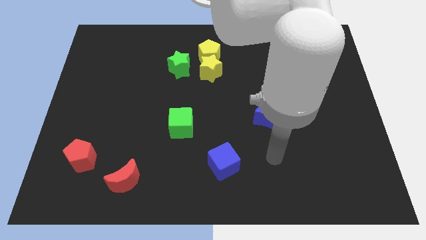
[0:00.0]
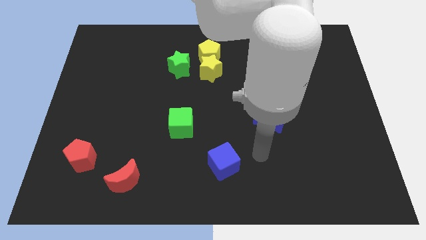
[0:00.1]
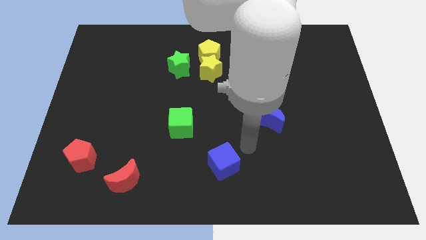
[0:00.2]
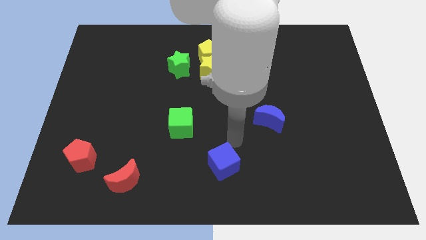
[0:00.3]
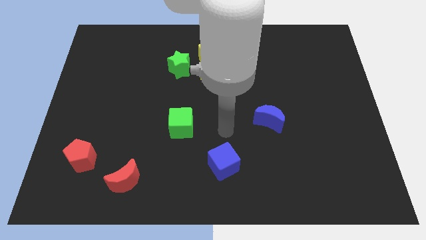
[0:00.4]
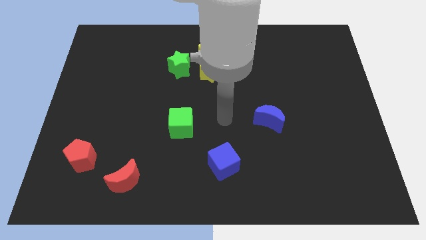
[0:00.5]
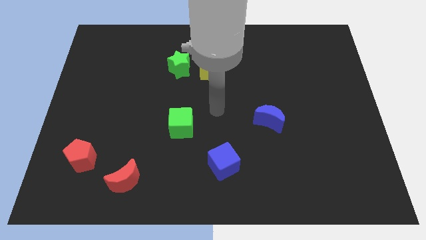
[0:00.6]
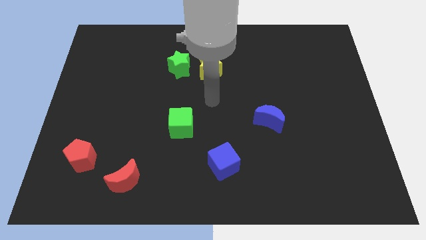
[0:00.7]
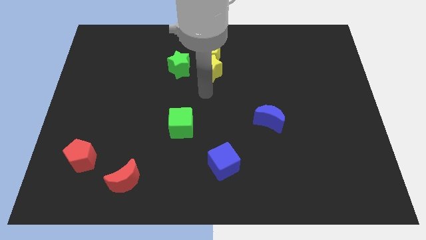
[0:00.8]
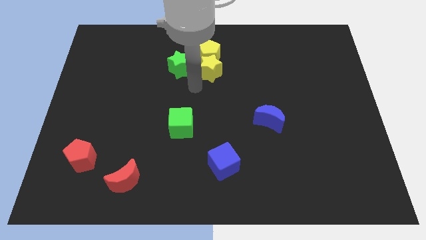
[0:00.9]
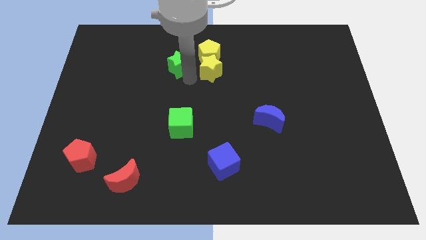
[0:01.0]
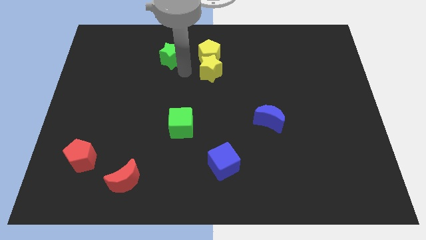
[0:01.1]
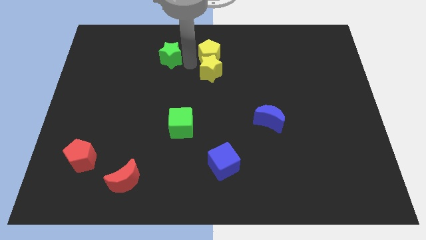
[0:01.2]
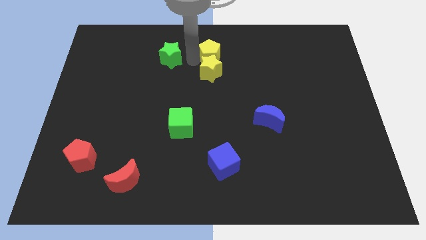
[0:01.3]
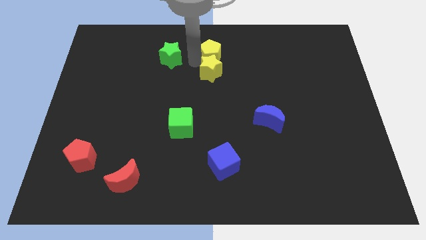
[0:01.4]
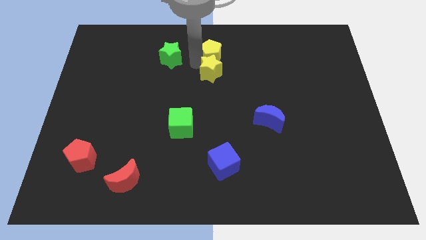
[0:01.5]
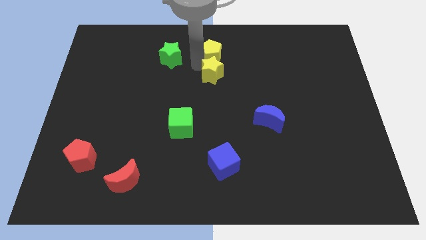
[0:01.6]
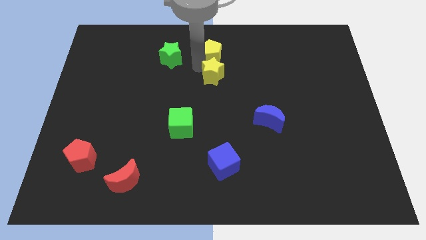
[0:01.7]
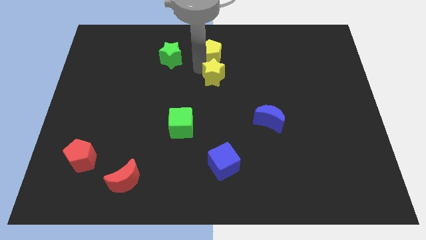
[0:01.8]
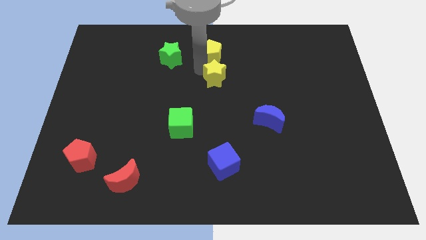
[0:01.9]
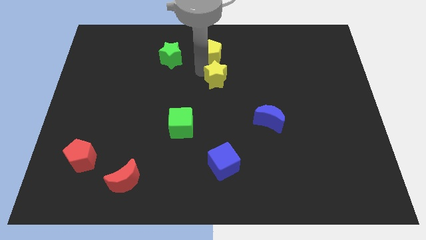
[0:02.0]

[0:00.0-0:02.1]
move the yellow star away from the yellow pentagon and green star

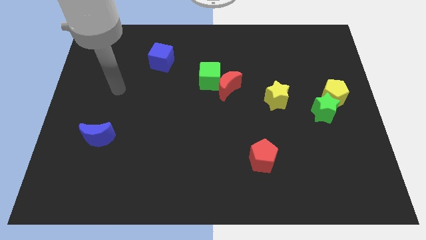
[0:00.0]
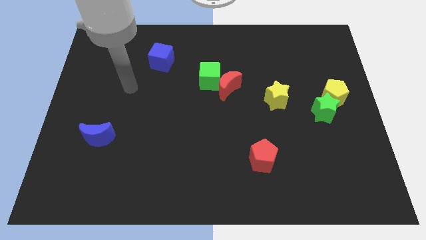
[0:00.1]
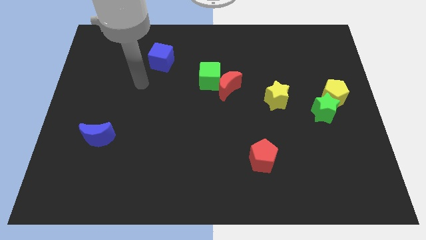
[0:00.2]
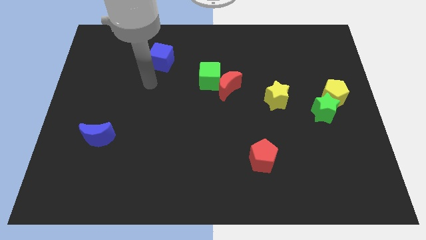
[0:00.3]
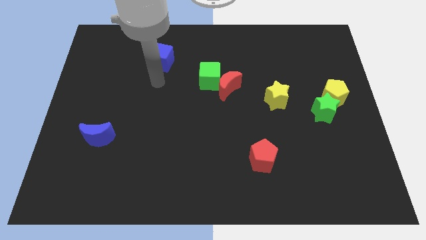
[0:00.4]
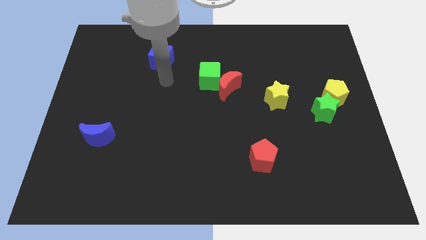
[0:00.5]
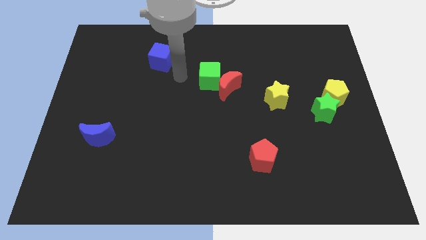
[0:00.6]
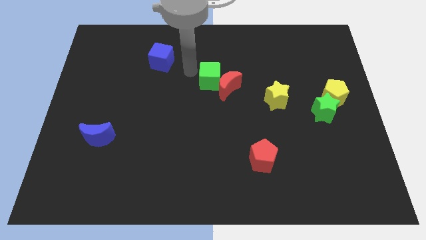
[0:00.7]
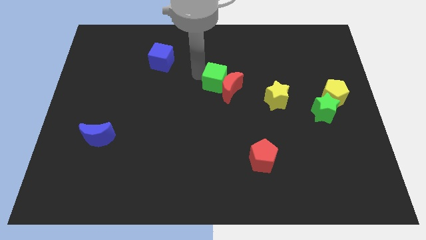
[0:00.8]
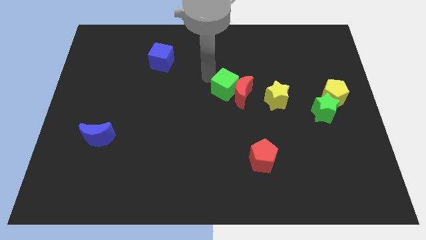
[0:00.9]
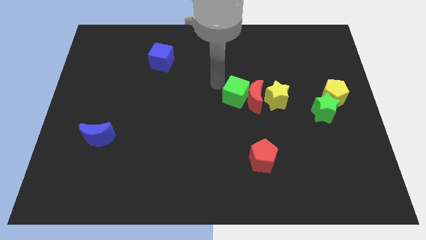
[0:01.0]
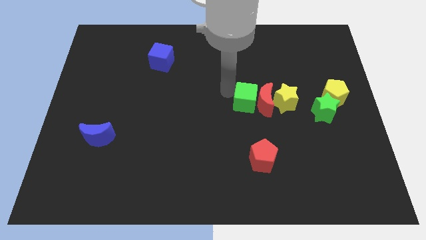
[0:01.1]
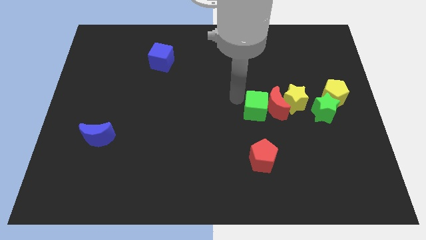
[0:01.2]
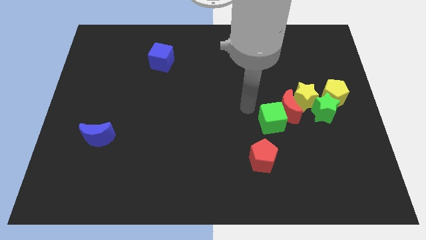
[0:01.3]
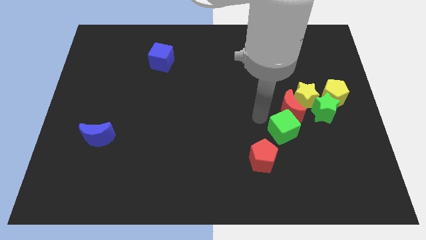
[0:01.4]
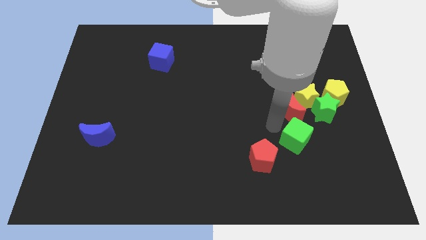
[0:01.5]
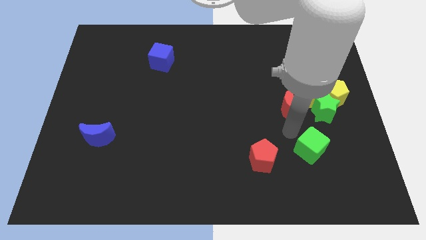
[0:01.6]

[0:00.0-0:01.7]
pull the red moon apart from the green cube

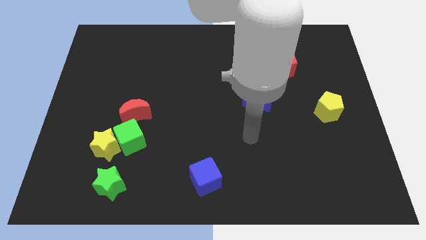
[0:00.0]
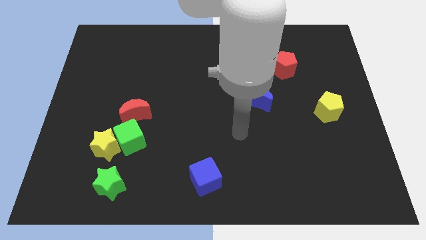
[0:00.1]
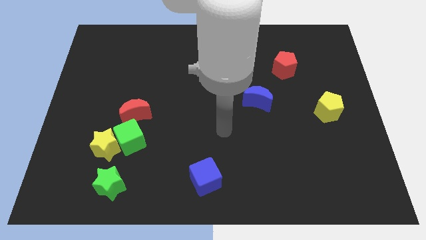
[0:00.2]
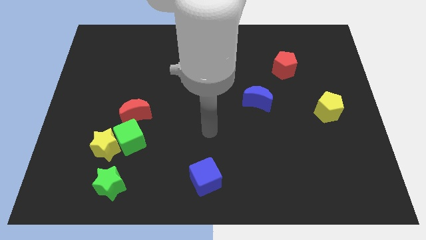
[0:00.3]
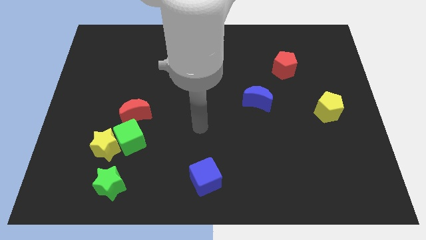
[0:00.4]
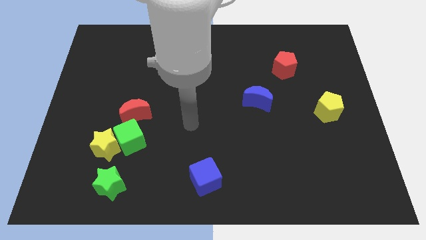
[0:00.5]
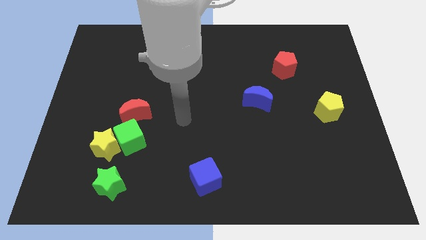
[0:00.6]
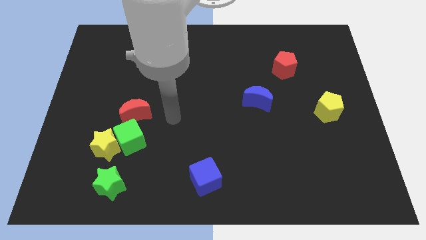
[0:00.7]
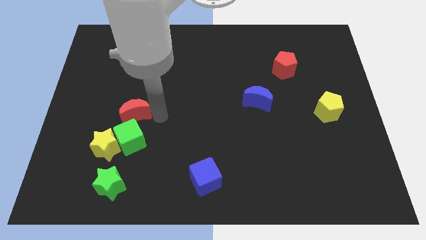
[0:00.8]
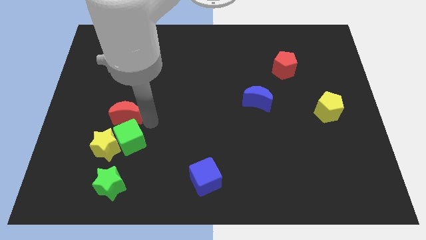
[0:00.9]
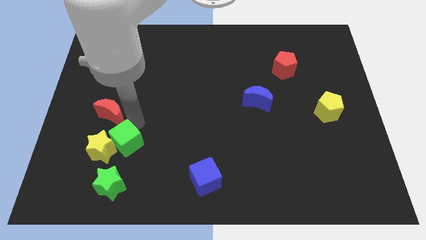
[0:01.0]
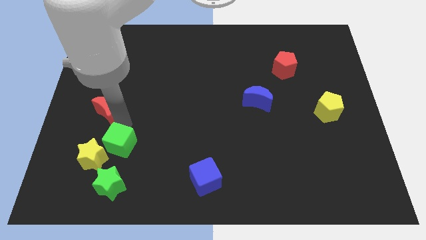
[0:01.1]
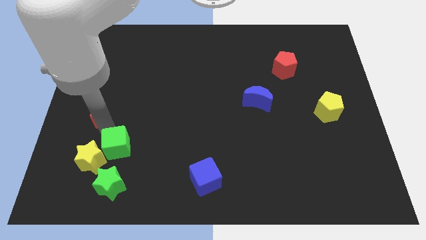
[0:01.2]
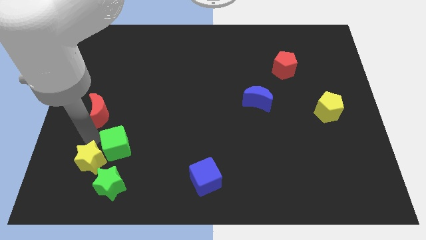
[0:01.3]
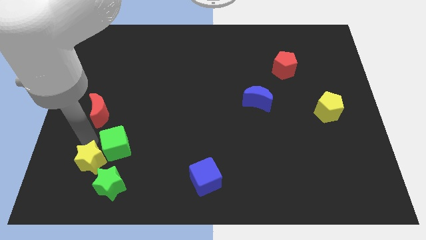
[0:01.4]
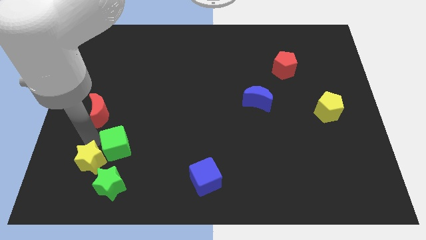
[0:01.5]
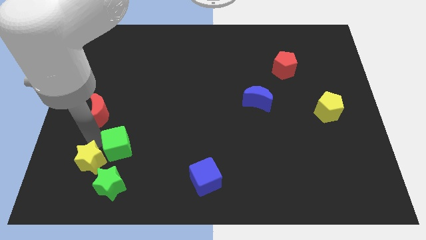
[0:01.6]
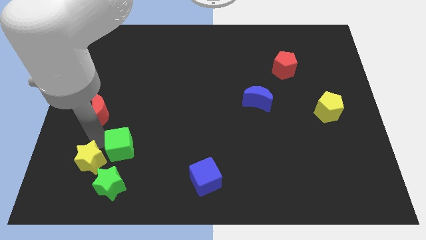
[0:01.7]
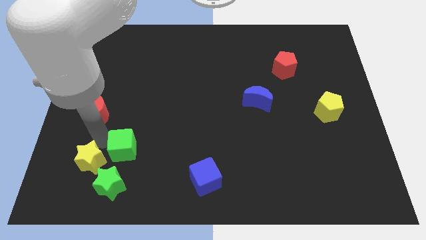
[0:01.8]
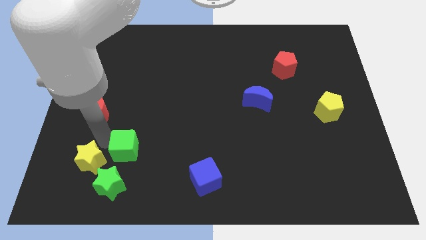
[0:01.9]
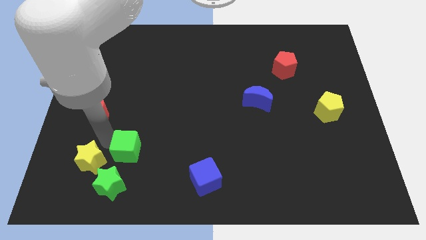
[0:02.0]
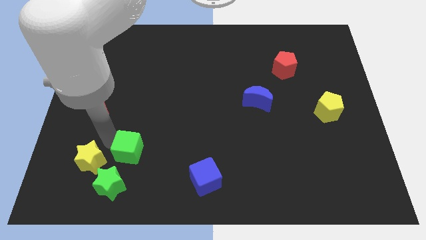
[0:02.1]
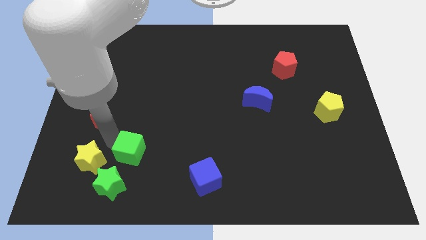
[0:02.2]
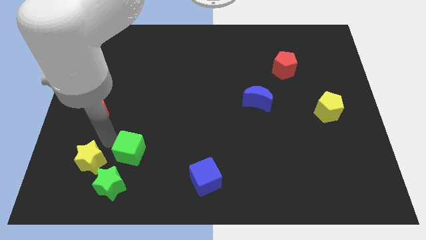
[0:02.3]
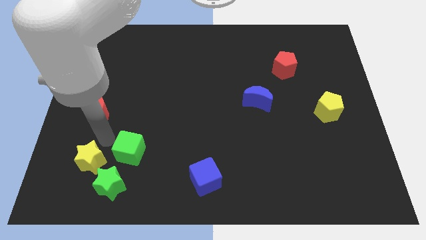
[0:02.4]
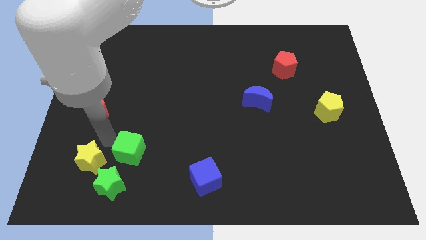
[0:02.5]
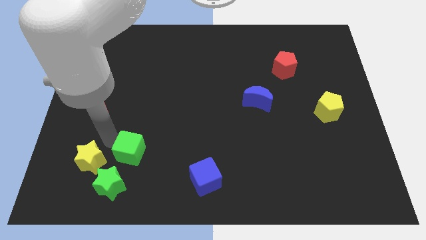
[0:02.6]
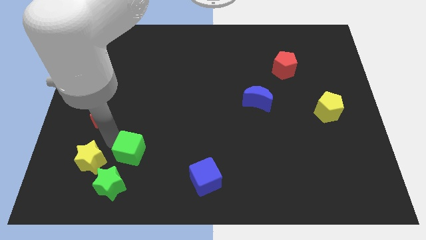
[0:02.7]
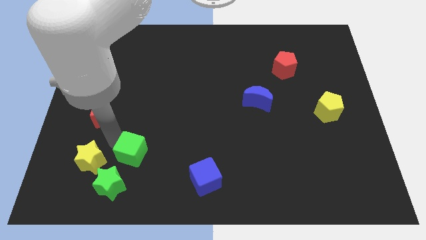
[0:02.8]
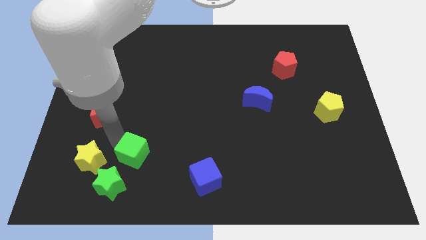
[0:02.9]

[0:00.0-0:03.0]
move the green cube away from the yellow star and red moon

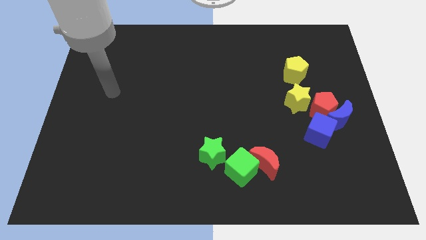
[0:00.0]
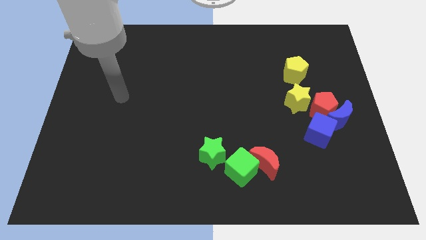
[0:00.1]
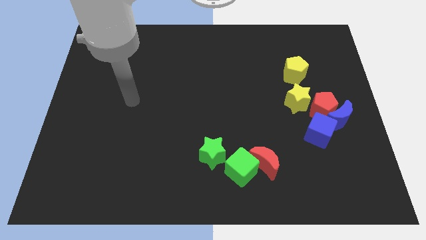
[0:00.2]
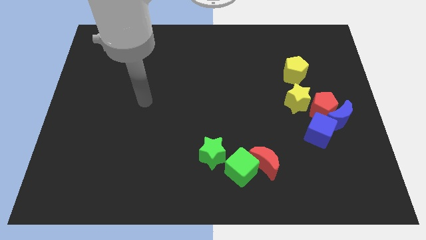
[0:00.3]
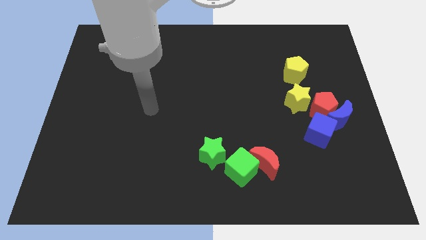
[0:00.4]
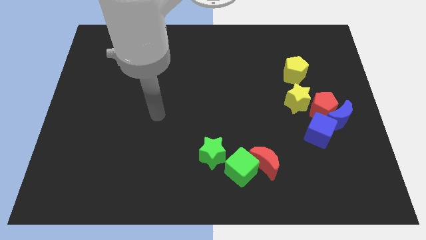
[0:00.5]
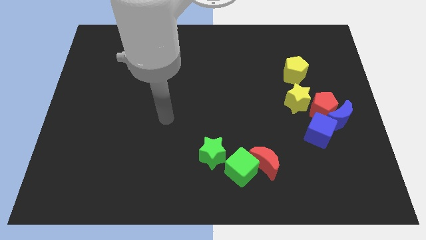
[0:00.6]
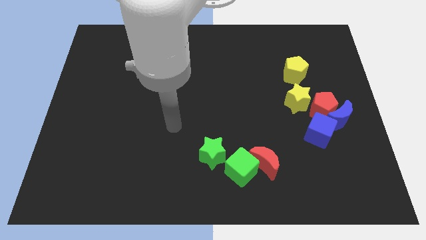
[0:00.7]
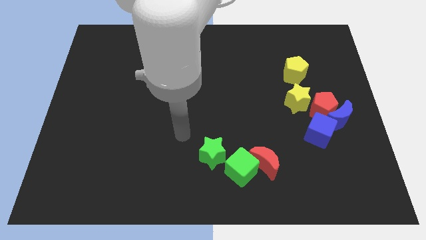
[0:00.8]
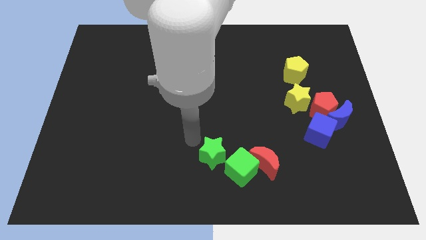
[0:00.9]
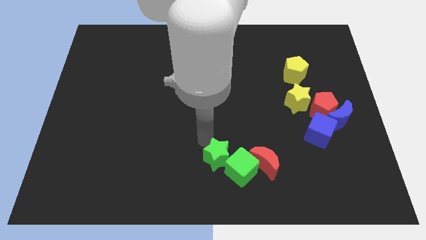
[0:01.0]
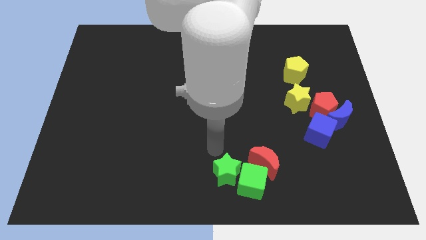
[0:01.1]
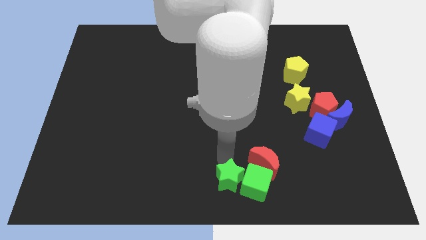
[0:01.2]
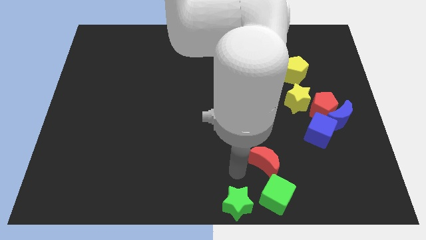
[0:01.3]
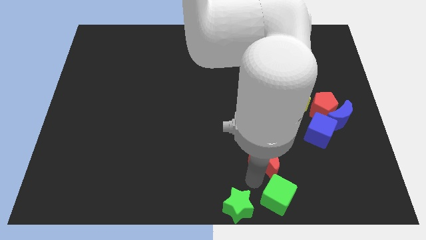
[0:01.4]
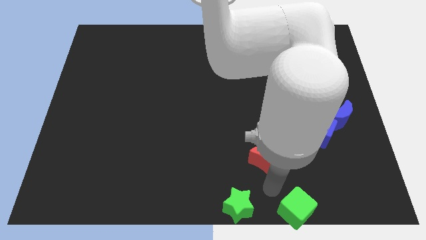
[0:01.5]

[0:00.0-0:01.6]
move the red moon away from the green cube

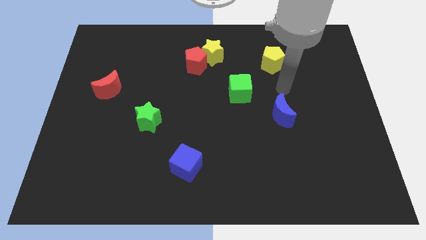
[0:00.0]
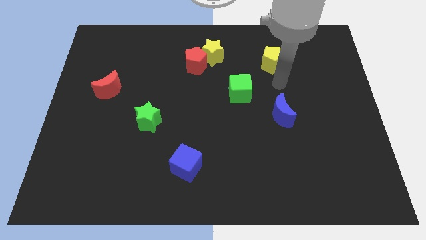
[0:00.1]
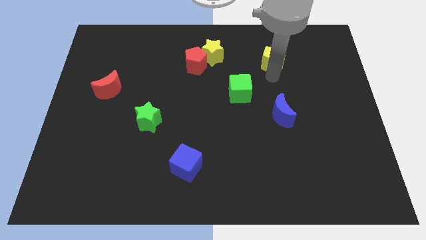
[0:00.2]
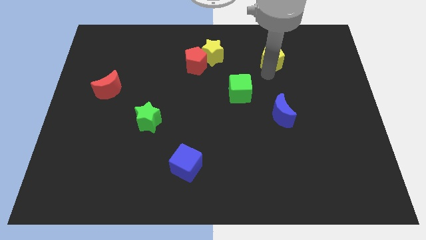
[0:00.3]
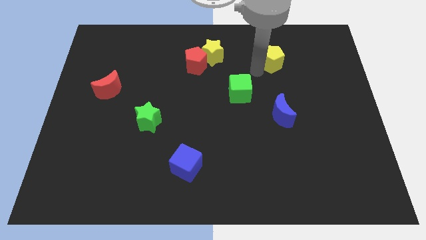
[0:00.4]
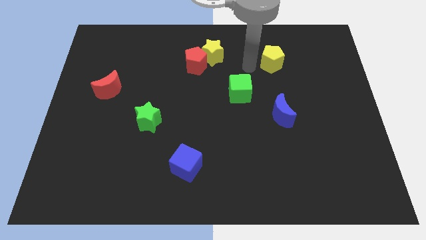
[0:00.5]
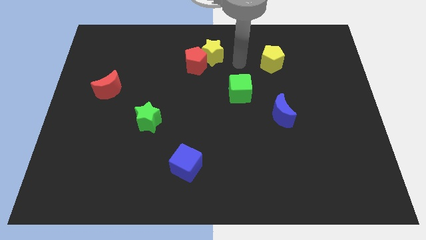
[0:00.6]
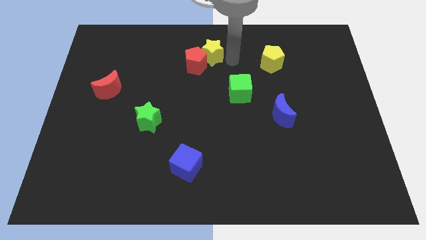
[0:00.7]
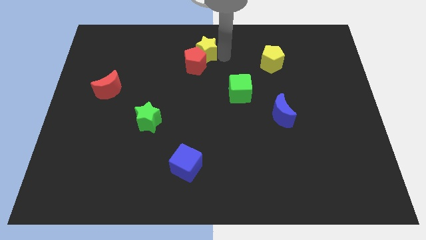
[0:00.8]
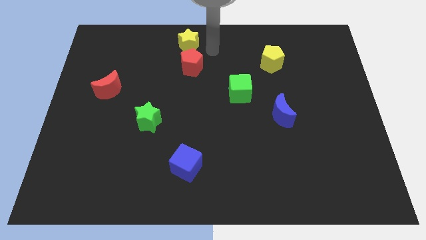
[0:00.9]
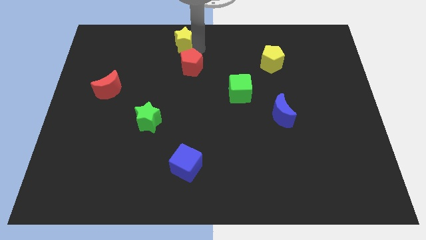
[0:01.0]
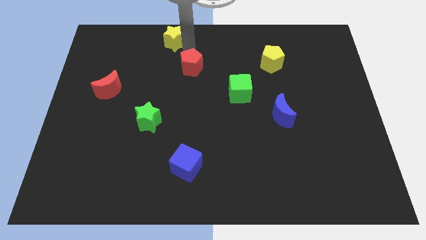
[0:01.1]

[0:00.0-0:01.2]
pull the red pentagon apart from the yellow star
